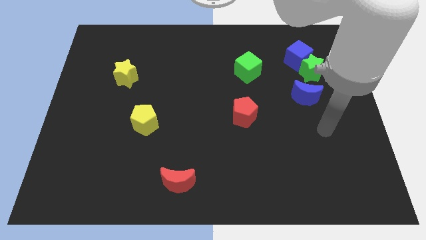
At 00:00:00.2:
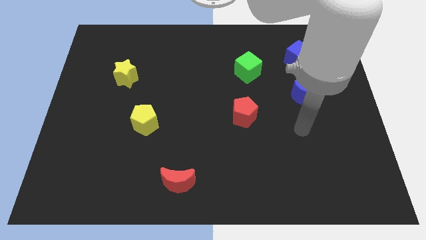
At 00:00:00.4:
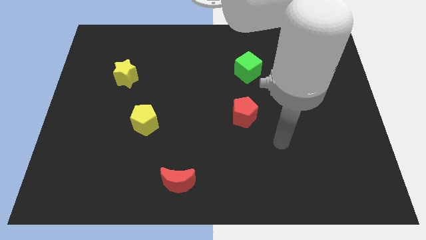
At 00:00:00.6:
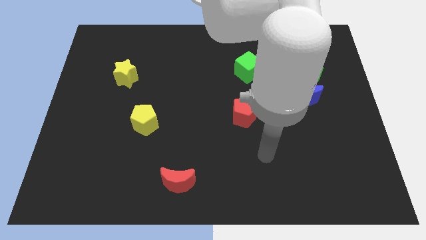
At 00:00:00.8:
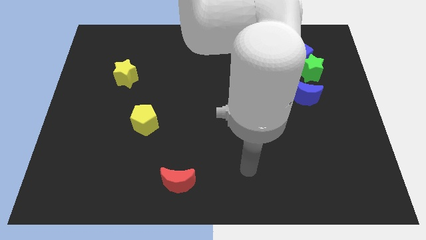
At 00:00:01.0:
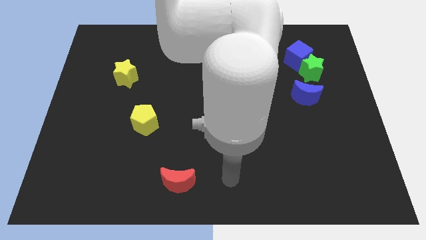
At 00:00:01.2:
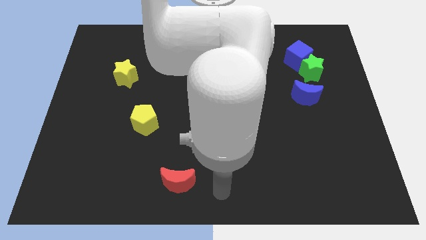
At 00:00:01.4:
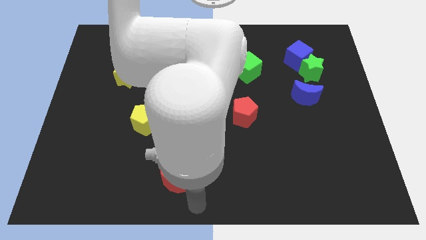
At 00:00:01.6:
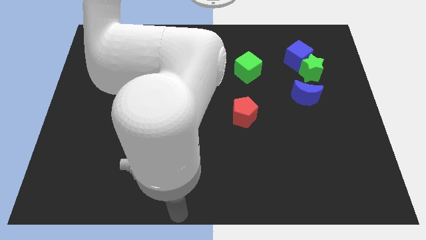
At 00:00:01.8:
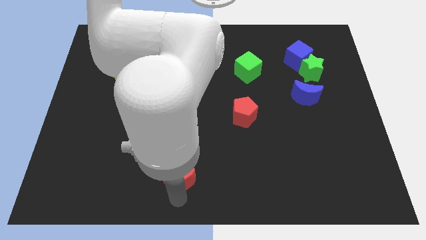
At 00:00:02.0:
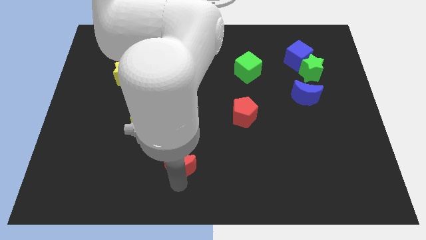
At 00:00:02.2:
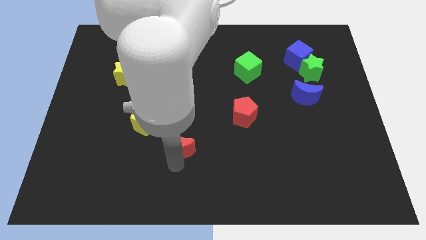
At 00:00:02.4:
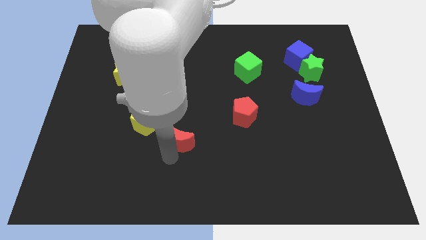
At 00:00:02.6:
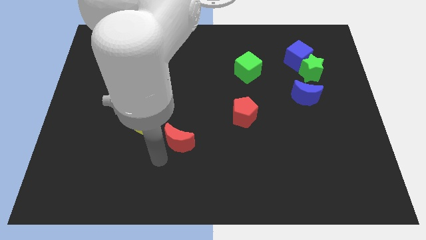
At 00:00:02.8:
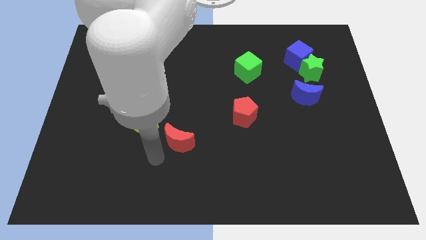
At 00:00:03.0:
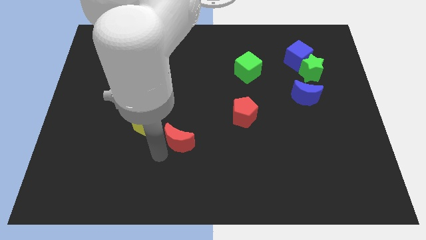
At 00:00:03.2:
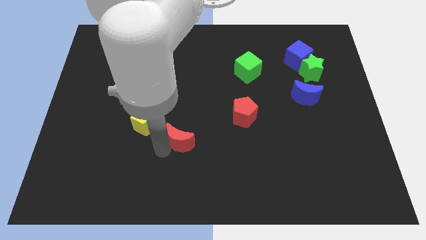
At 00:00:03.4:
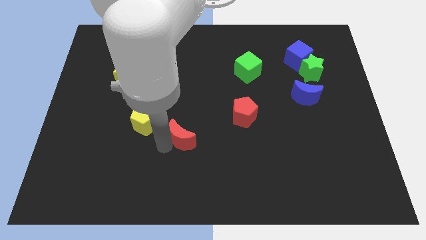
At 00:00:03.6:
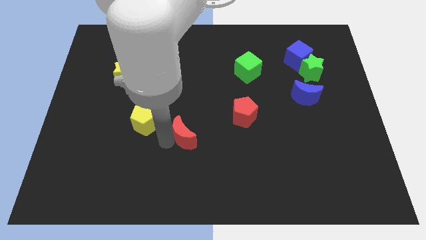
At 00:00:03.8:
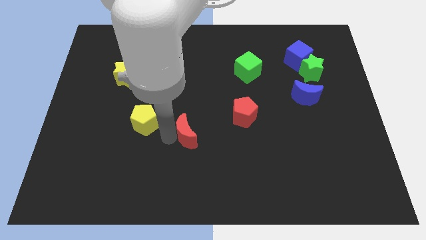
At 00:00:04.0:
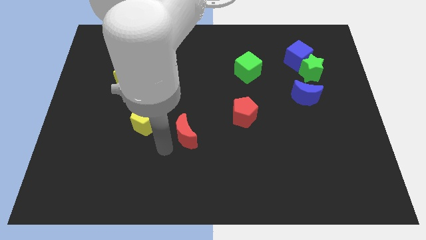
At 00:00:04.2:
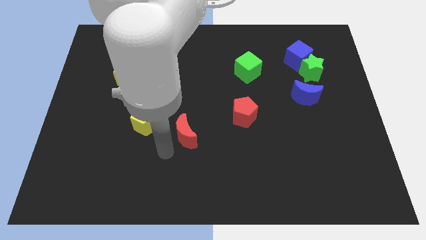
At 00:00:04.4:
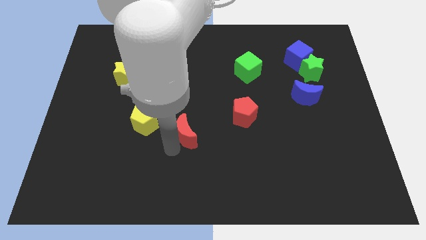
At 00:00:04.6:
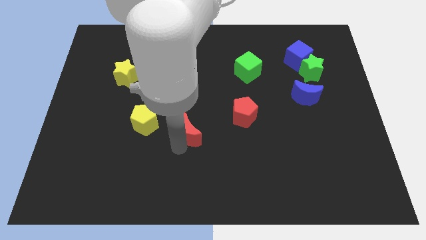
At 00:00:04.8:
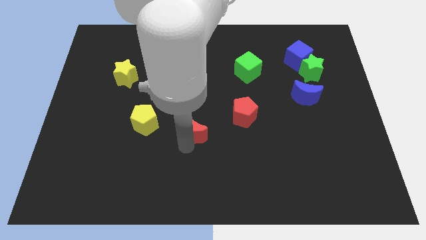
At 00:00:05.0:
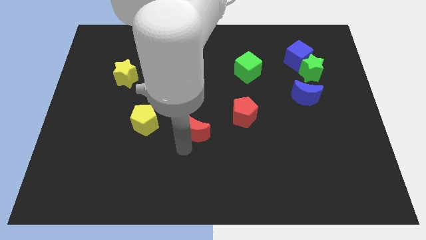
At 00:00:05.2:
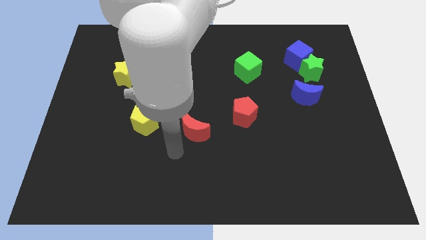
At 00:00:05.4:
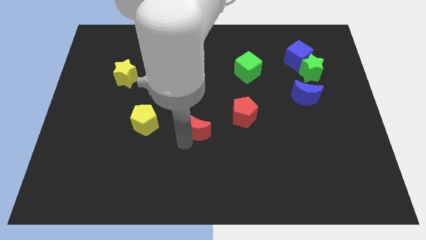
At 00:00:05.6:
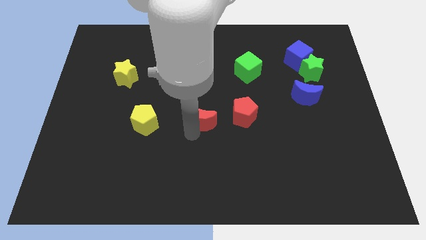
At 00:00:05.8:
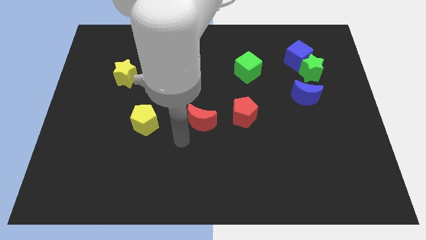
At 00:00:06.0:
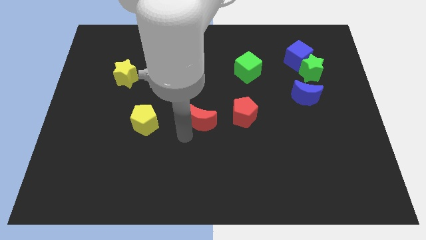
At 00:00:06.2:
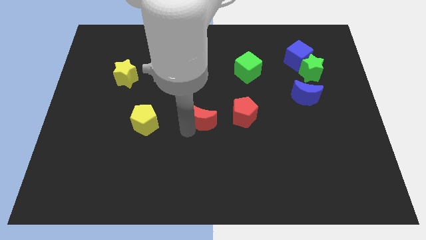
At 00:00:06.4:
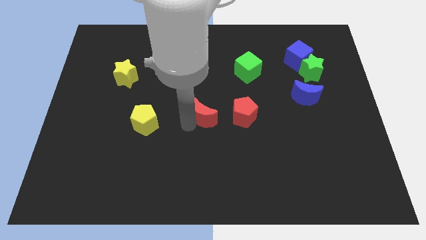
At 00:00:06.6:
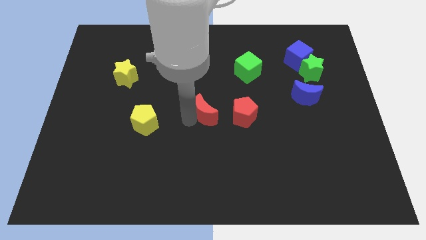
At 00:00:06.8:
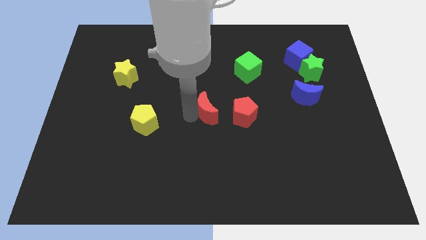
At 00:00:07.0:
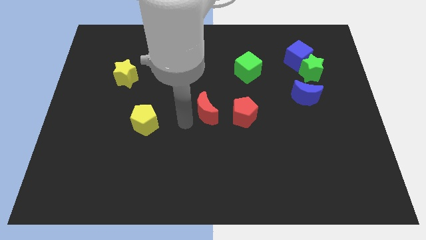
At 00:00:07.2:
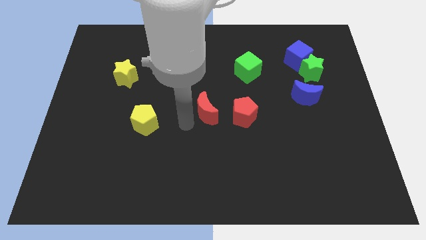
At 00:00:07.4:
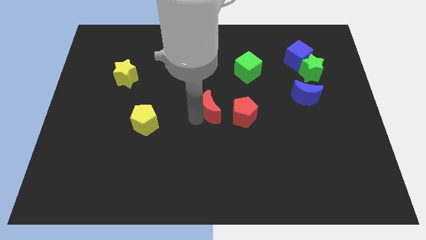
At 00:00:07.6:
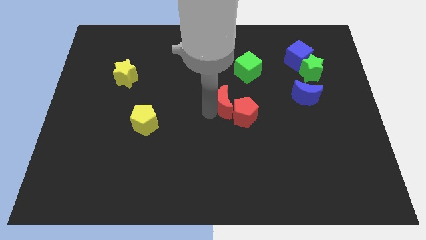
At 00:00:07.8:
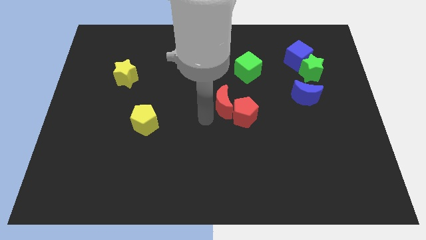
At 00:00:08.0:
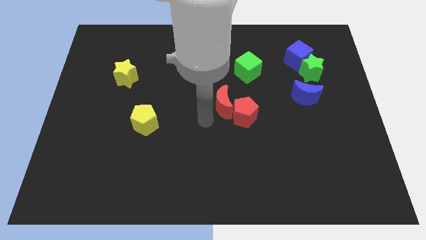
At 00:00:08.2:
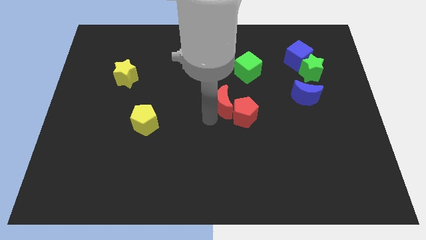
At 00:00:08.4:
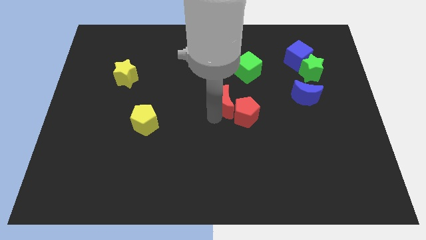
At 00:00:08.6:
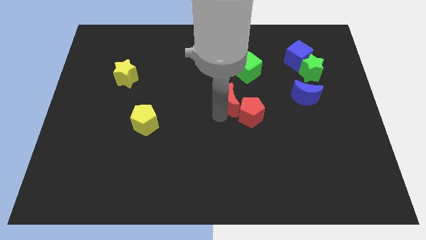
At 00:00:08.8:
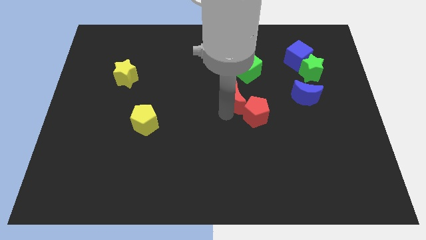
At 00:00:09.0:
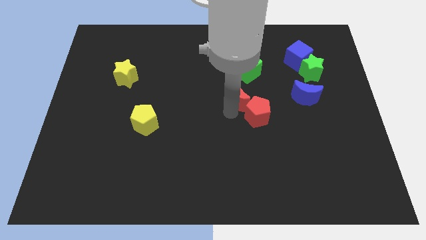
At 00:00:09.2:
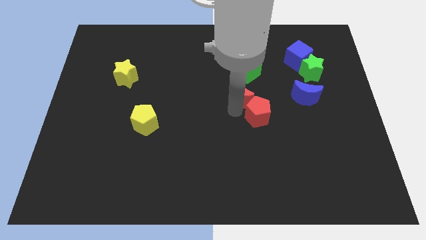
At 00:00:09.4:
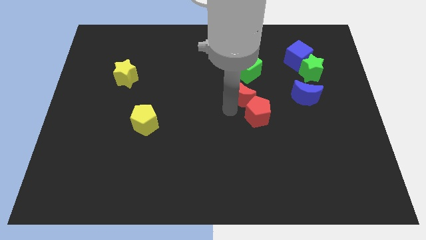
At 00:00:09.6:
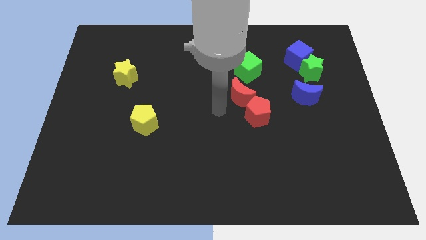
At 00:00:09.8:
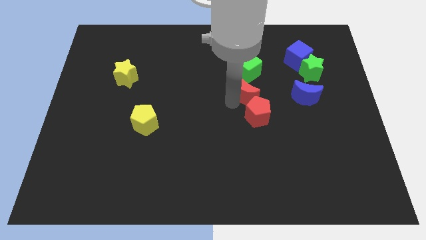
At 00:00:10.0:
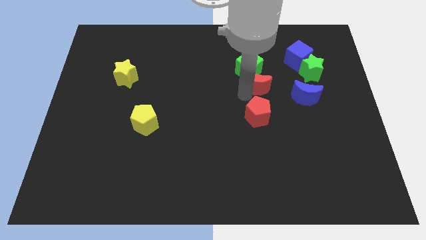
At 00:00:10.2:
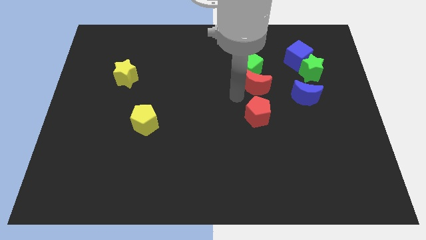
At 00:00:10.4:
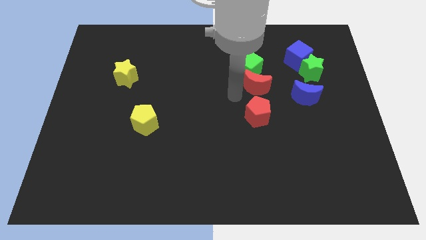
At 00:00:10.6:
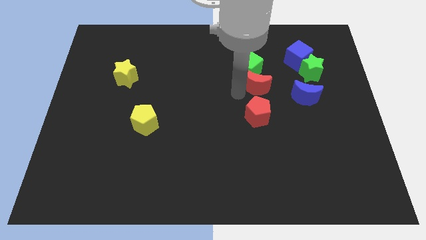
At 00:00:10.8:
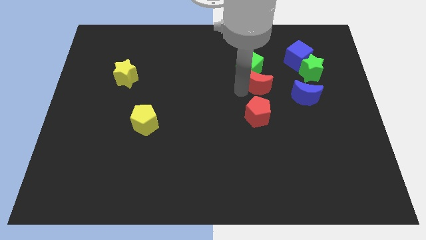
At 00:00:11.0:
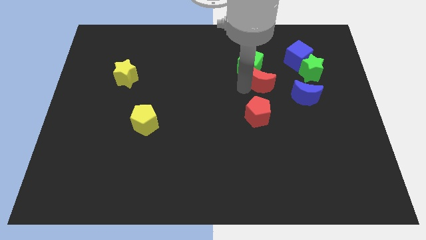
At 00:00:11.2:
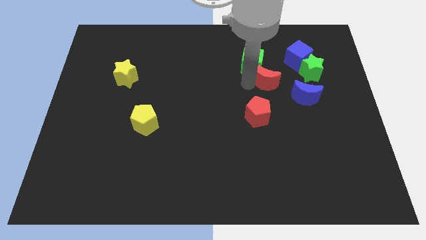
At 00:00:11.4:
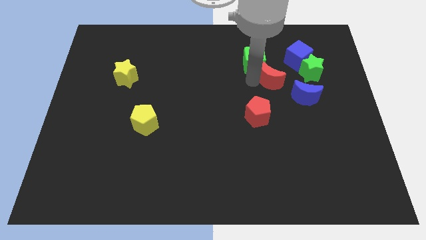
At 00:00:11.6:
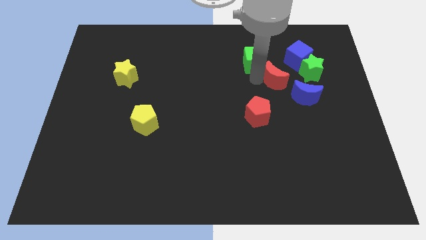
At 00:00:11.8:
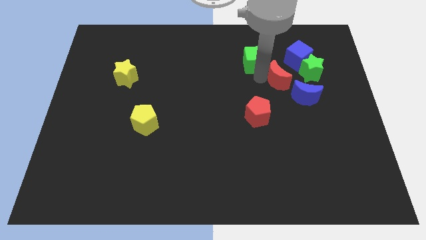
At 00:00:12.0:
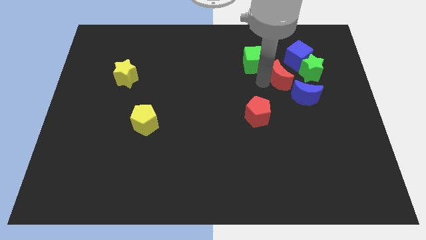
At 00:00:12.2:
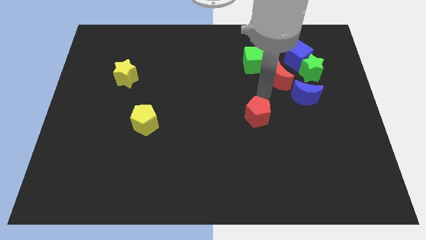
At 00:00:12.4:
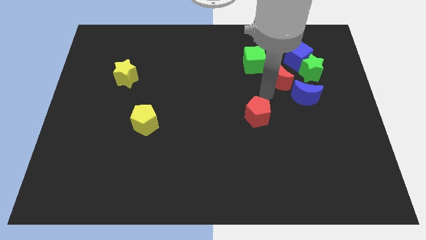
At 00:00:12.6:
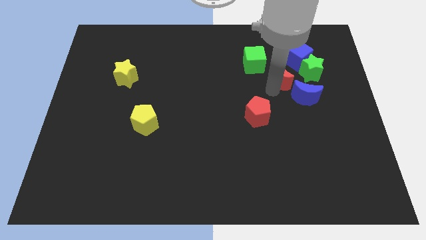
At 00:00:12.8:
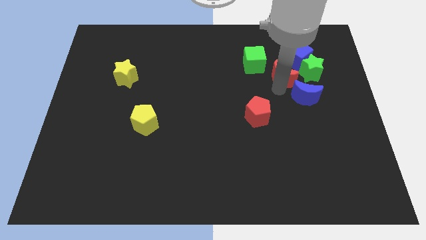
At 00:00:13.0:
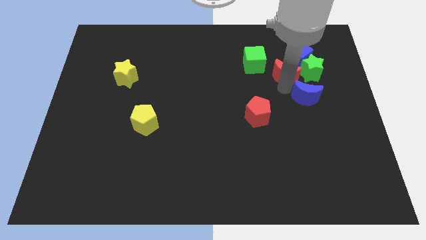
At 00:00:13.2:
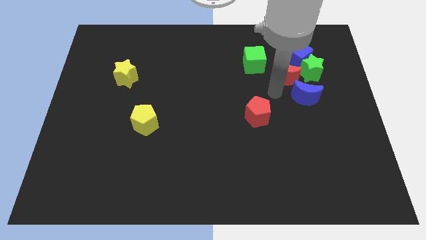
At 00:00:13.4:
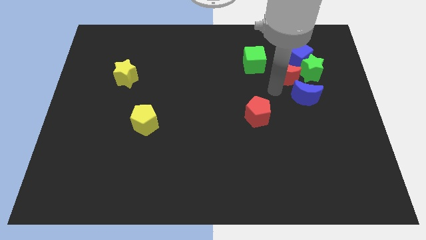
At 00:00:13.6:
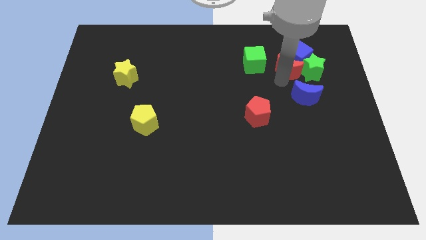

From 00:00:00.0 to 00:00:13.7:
slide the red moon to the blue cube
